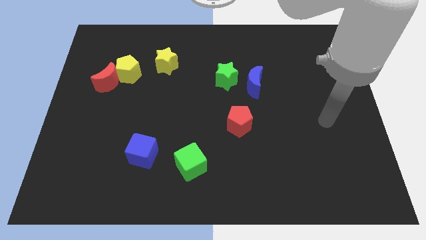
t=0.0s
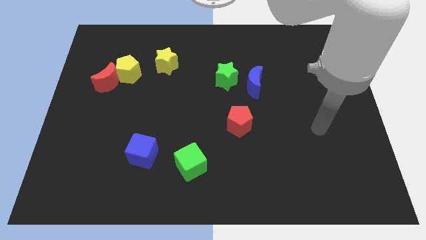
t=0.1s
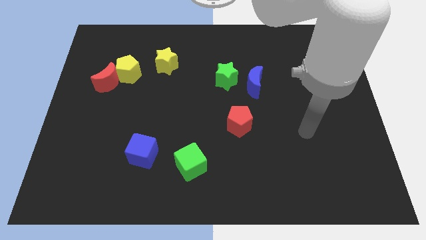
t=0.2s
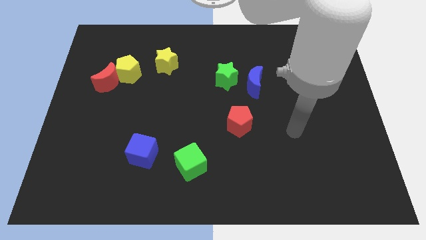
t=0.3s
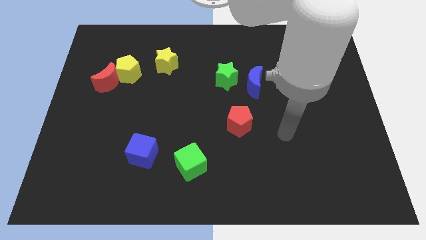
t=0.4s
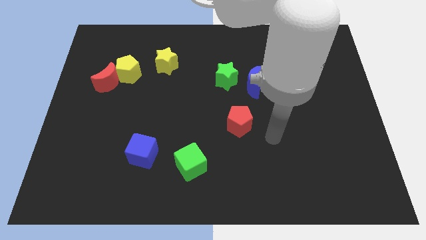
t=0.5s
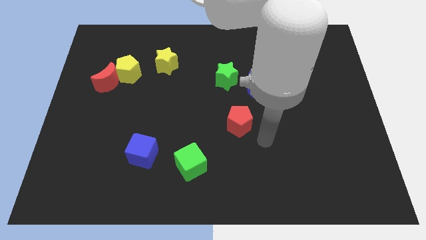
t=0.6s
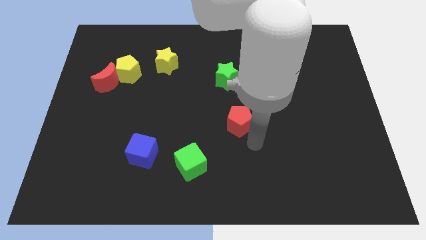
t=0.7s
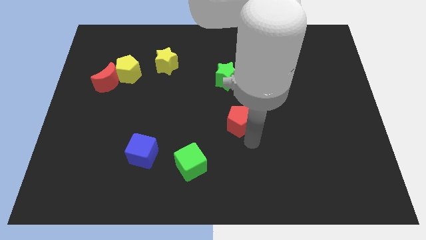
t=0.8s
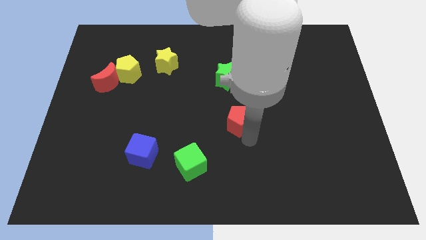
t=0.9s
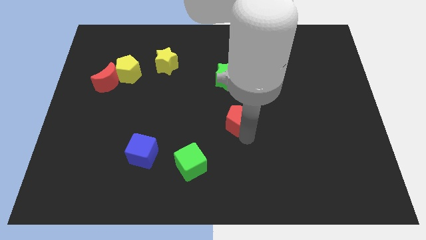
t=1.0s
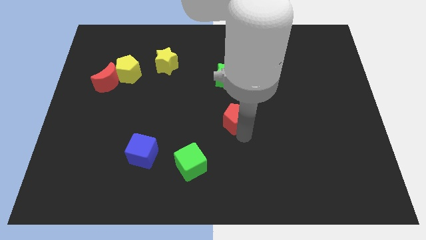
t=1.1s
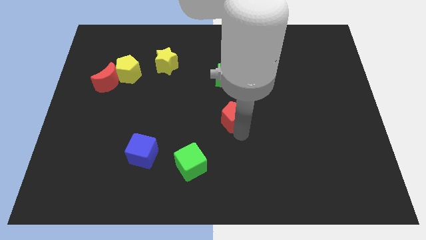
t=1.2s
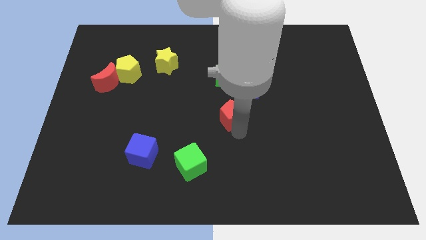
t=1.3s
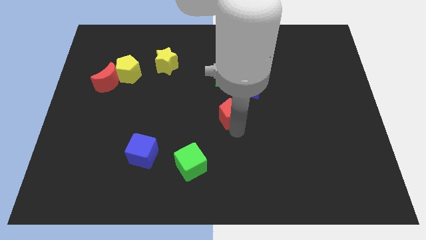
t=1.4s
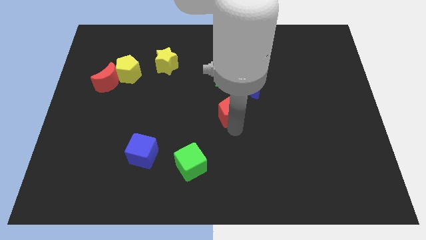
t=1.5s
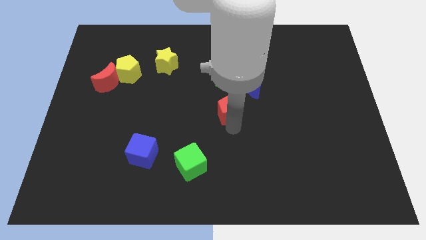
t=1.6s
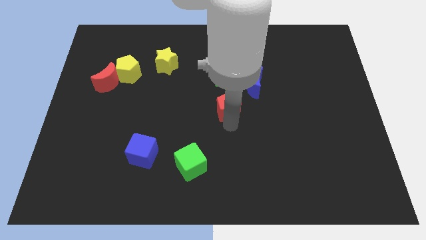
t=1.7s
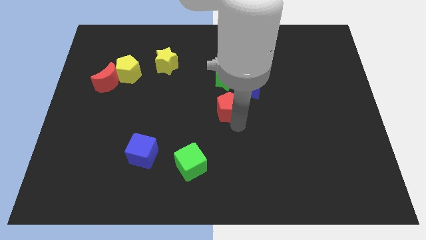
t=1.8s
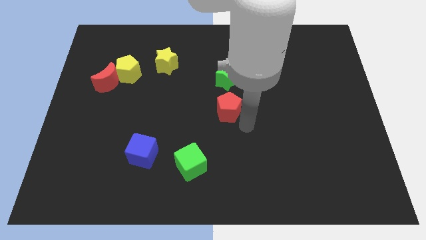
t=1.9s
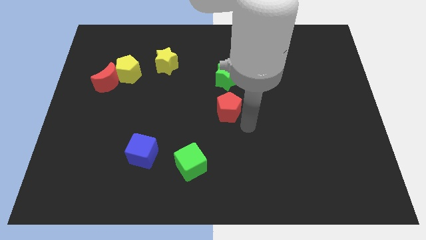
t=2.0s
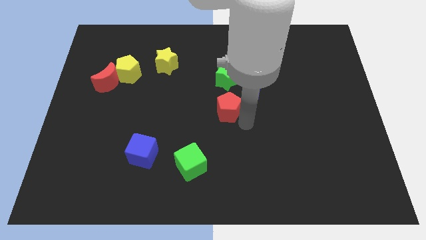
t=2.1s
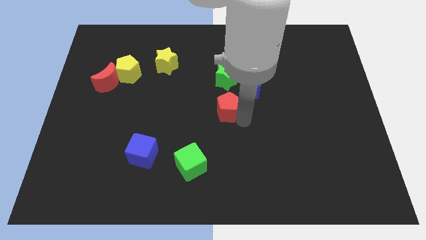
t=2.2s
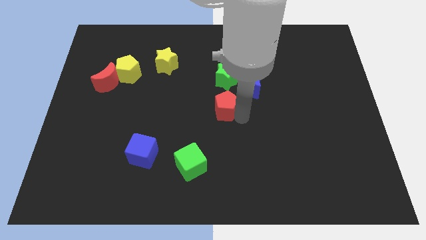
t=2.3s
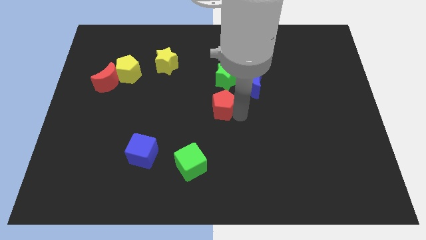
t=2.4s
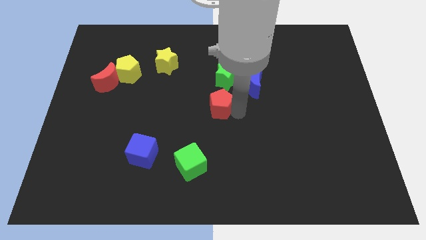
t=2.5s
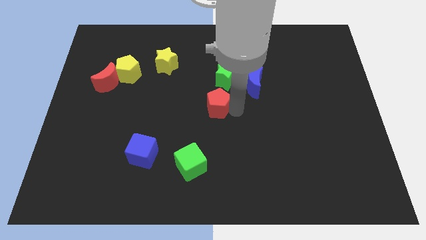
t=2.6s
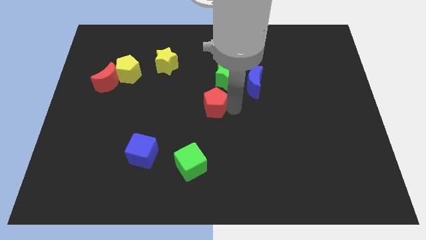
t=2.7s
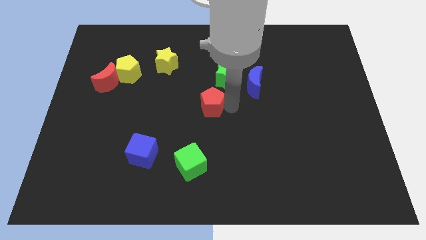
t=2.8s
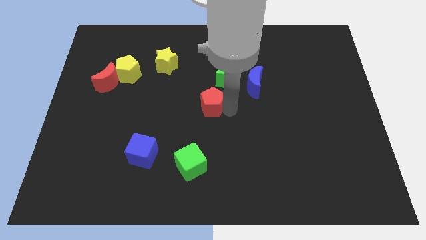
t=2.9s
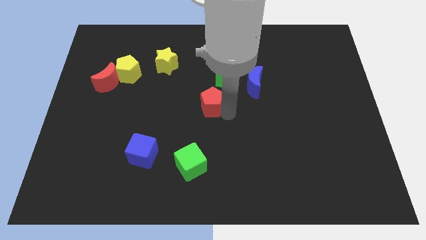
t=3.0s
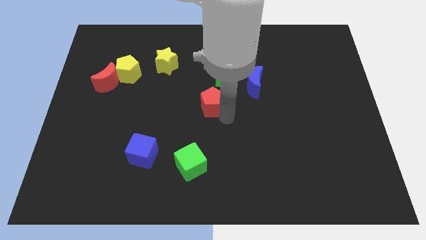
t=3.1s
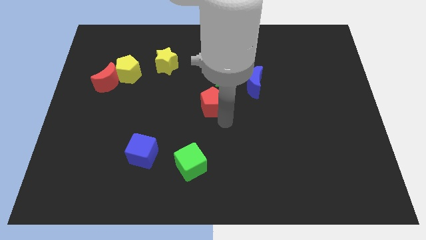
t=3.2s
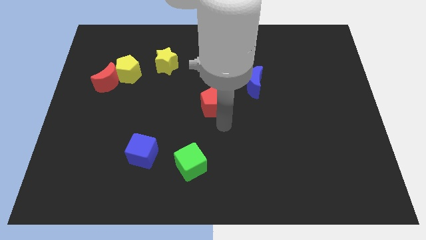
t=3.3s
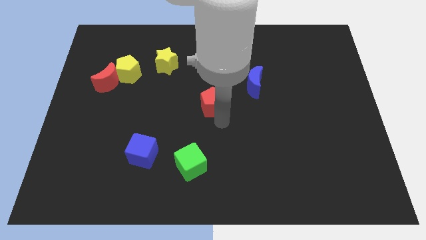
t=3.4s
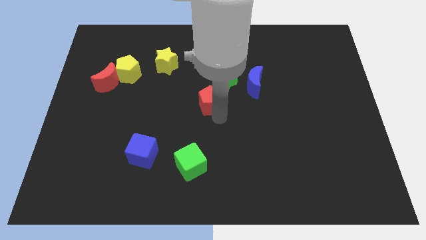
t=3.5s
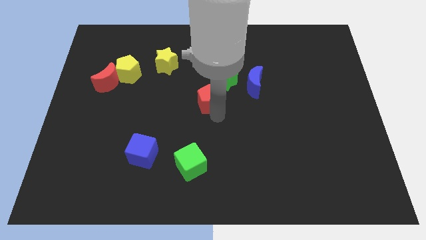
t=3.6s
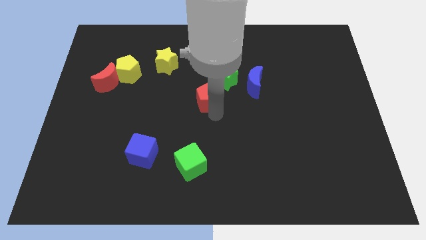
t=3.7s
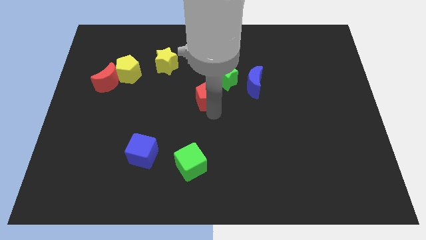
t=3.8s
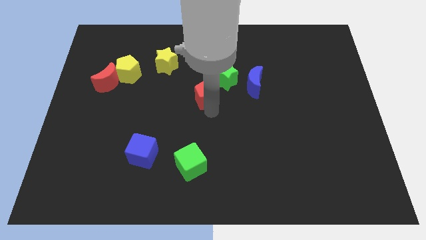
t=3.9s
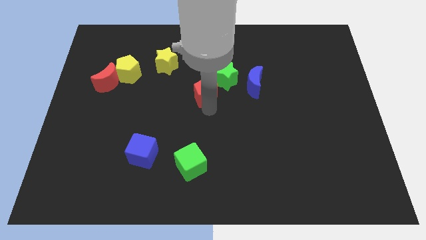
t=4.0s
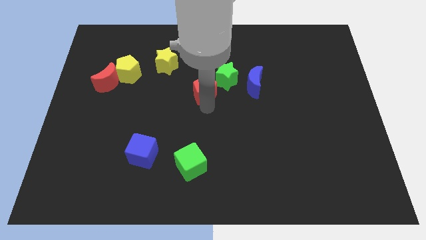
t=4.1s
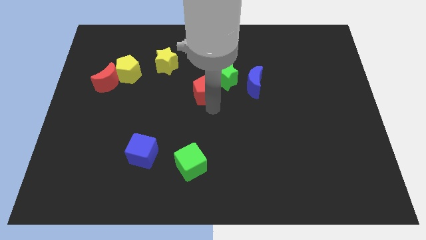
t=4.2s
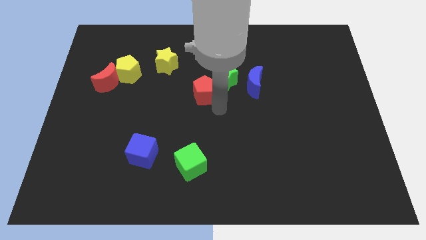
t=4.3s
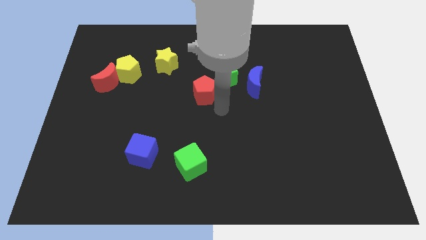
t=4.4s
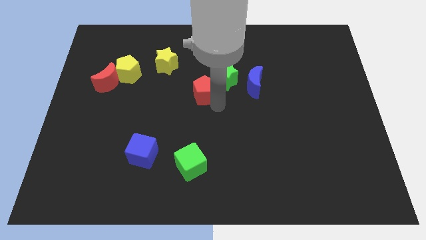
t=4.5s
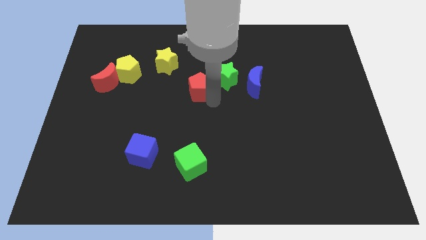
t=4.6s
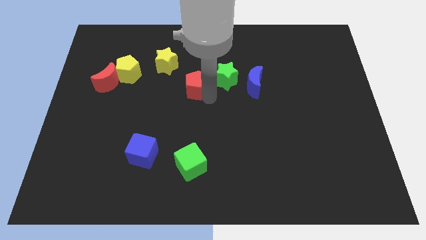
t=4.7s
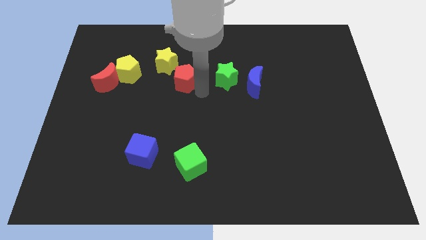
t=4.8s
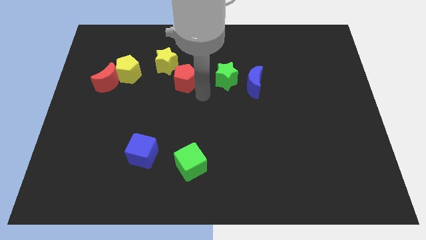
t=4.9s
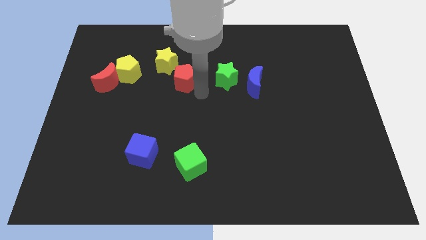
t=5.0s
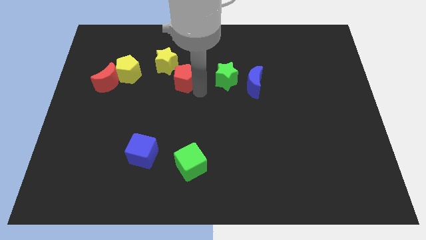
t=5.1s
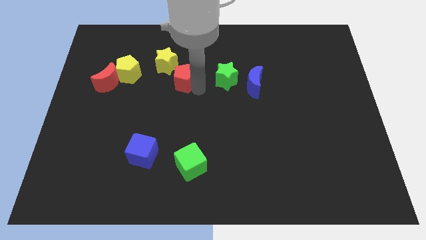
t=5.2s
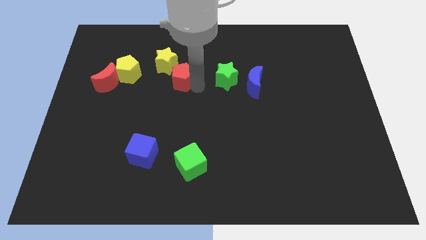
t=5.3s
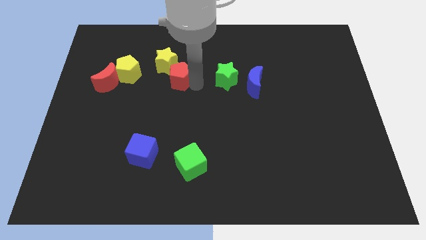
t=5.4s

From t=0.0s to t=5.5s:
slide the red pentagon next to the yellow star

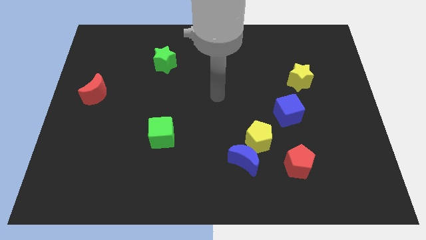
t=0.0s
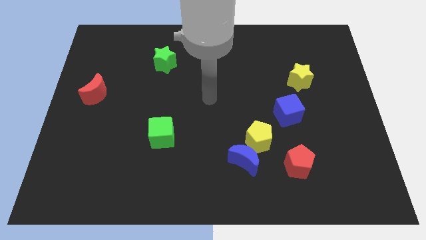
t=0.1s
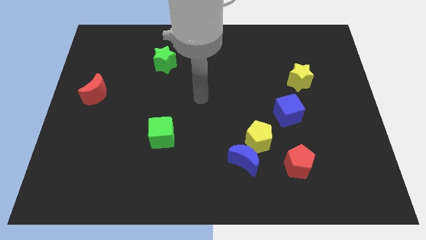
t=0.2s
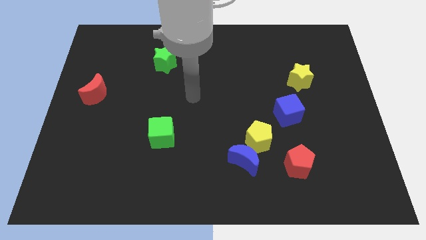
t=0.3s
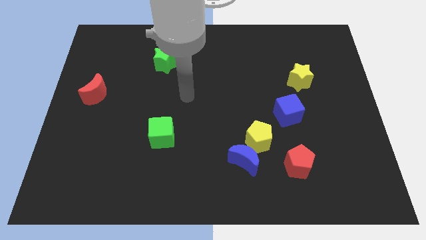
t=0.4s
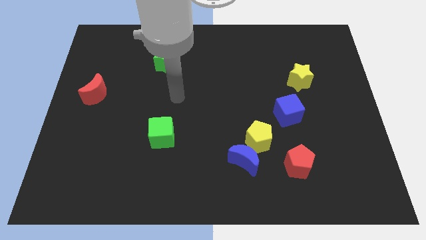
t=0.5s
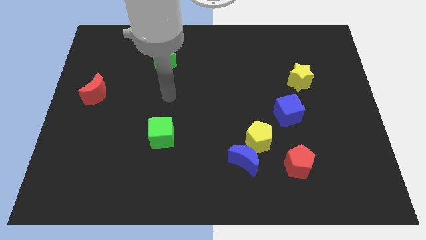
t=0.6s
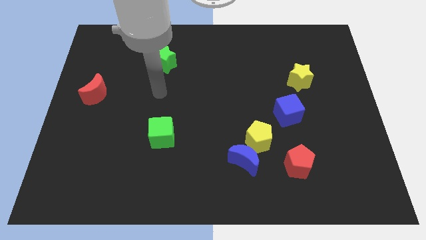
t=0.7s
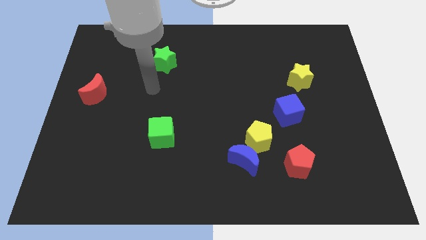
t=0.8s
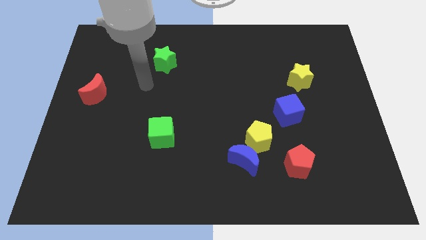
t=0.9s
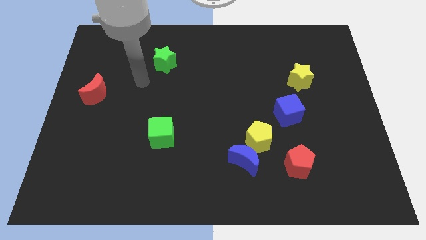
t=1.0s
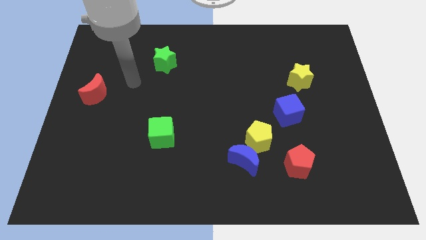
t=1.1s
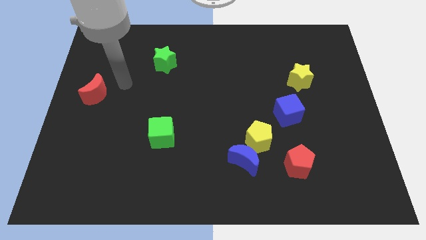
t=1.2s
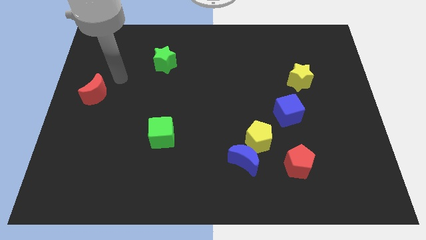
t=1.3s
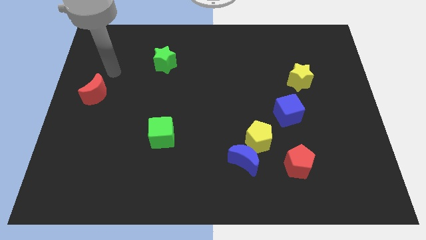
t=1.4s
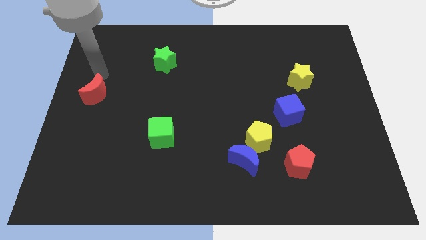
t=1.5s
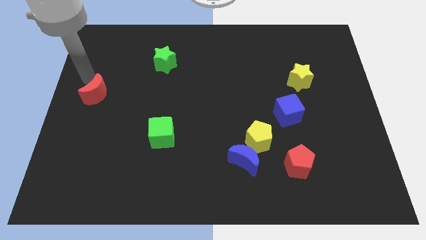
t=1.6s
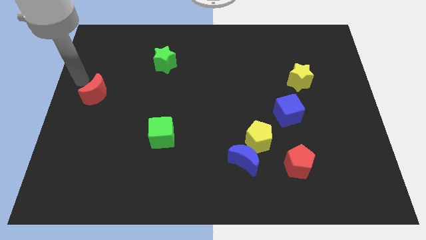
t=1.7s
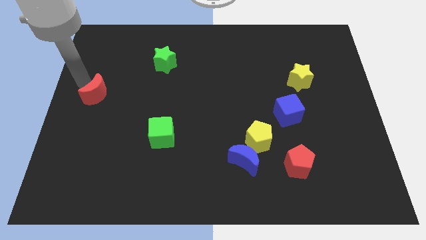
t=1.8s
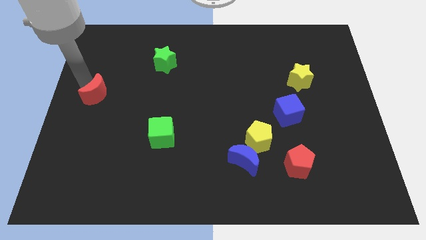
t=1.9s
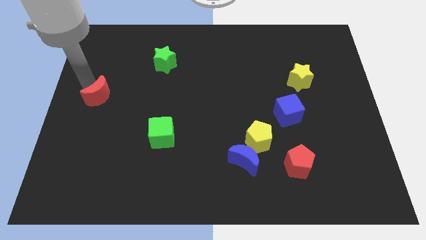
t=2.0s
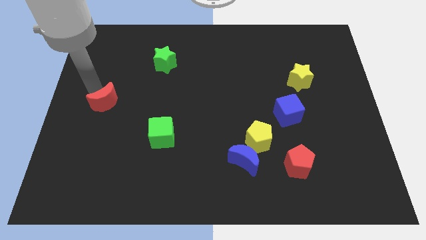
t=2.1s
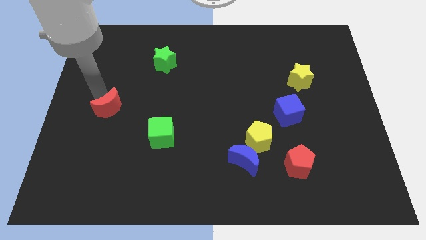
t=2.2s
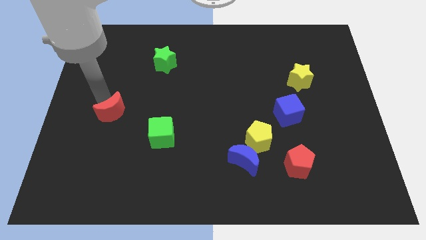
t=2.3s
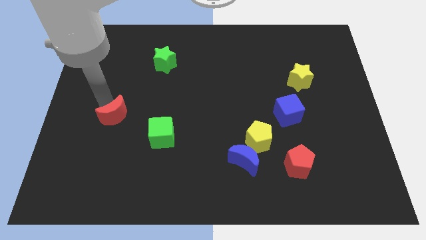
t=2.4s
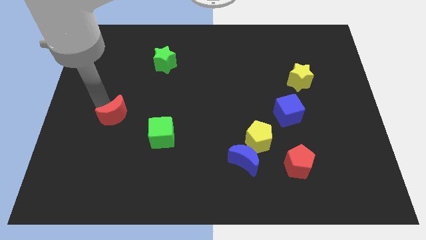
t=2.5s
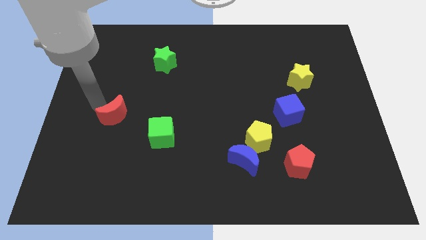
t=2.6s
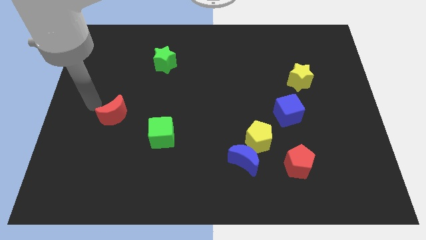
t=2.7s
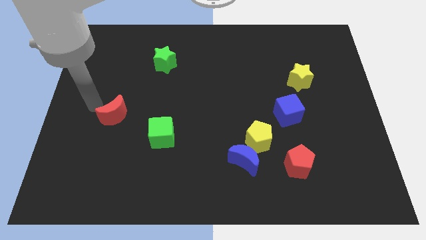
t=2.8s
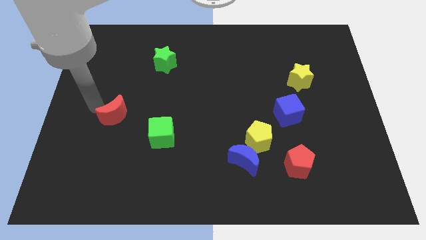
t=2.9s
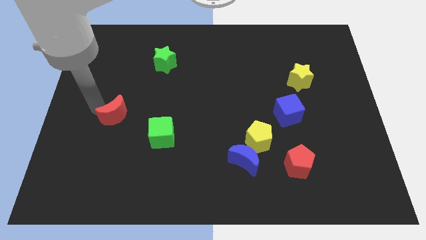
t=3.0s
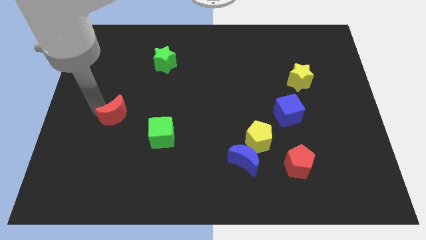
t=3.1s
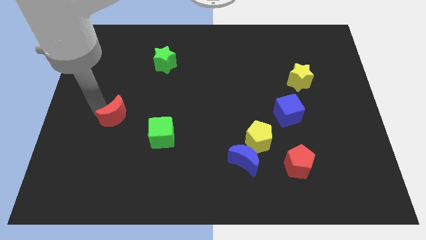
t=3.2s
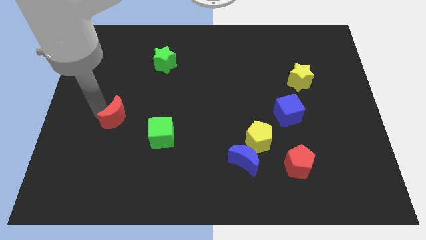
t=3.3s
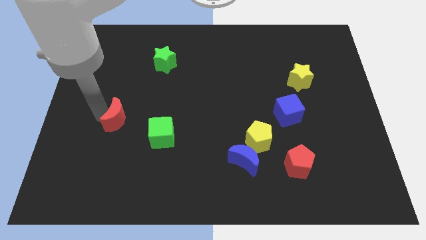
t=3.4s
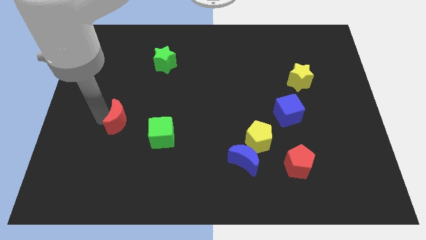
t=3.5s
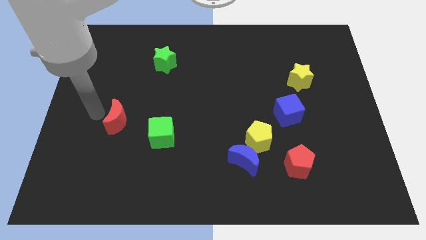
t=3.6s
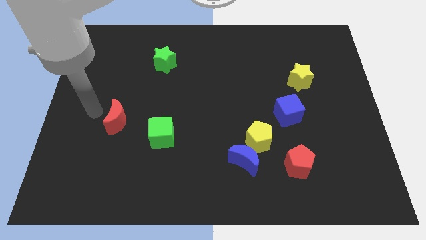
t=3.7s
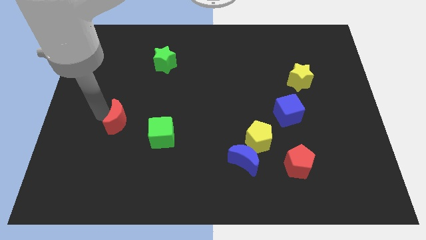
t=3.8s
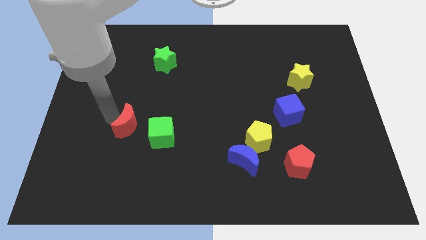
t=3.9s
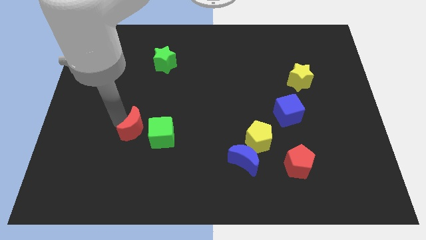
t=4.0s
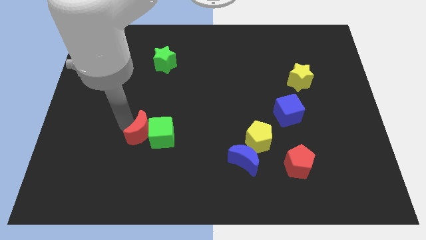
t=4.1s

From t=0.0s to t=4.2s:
push the red moon towards the green cube
